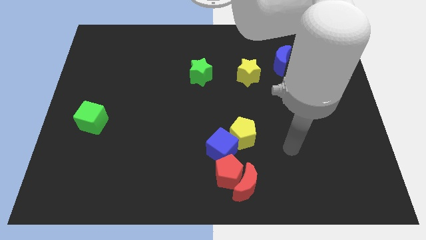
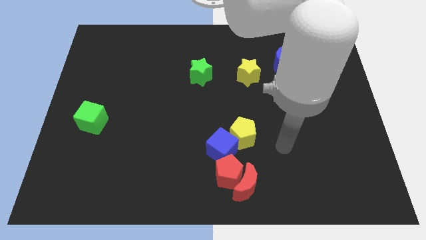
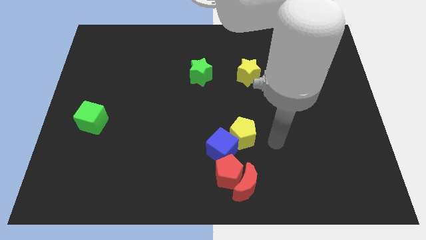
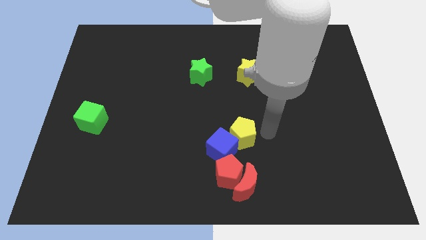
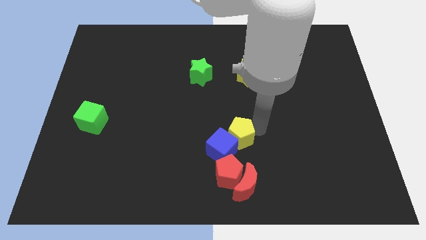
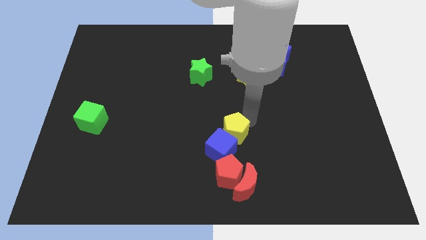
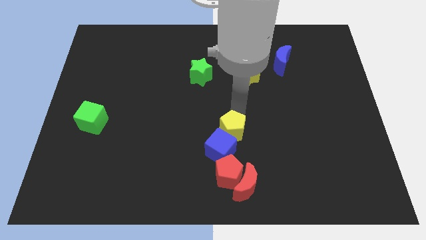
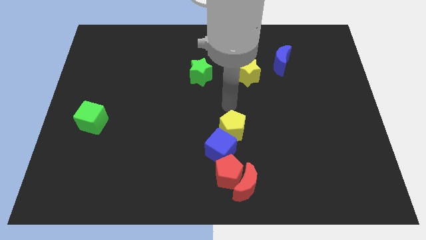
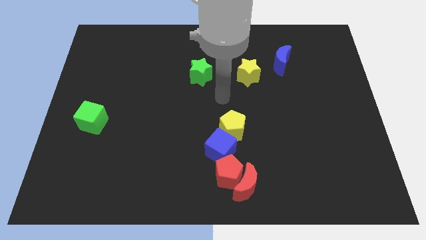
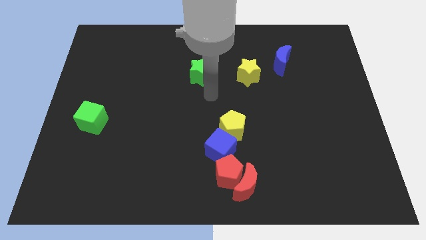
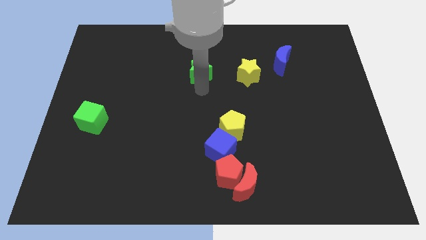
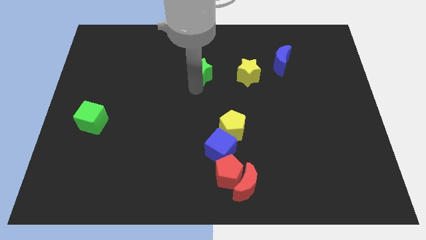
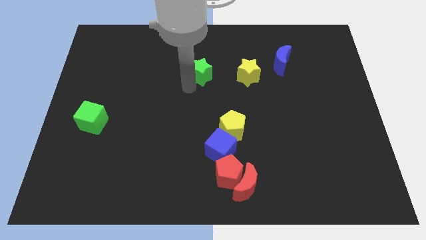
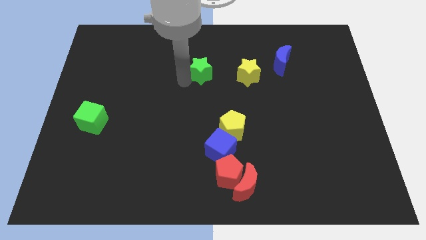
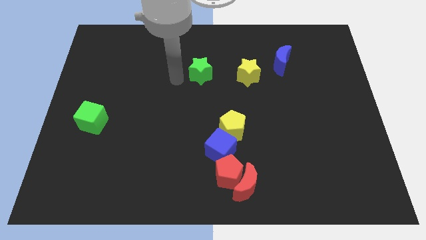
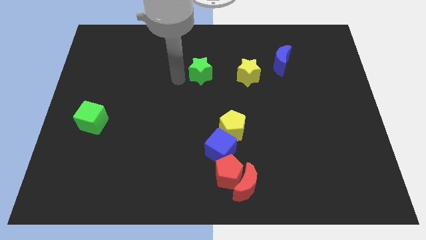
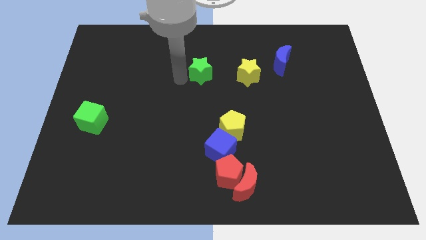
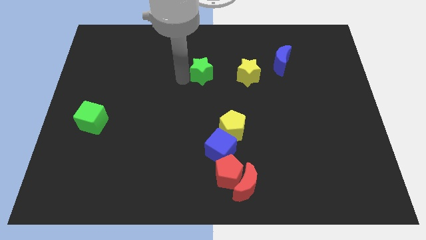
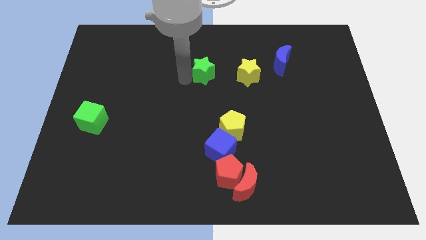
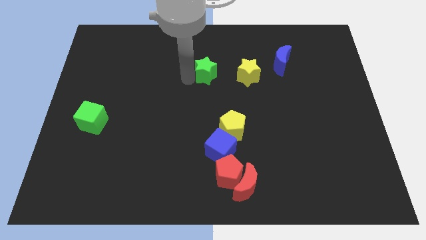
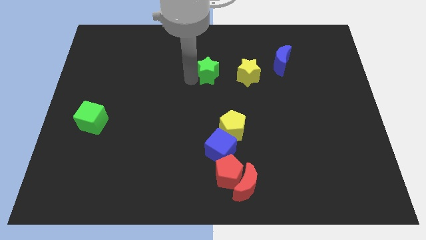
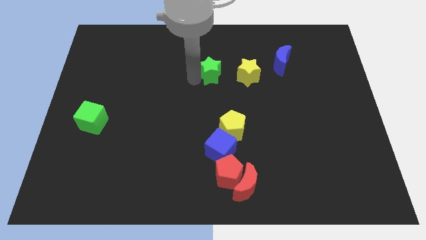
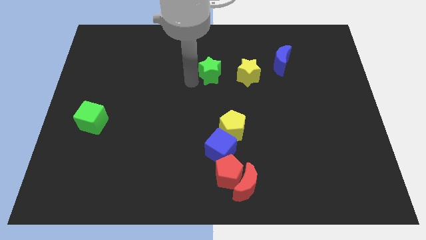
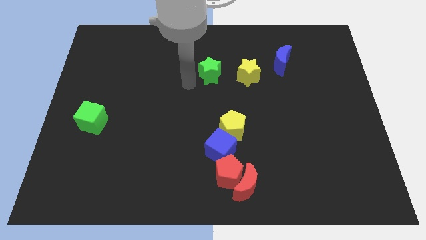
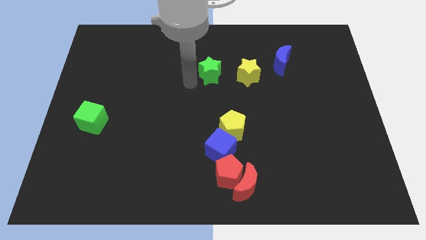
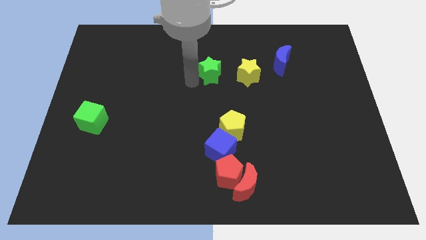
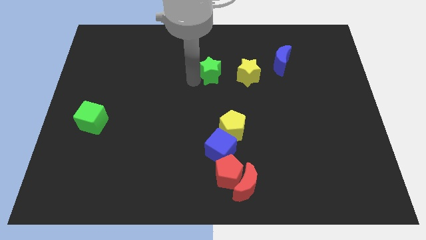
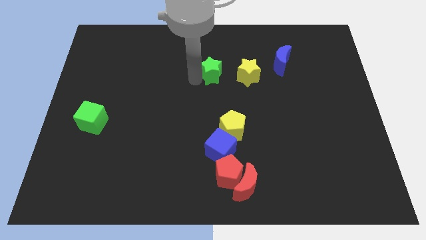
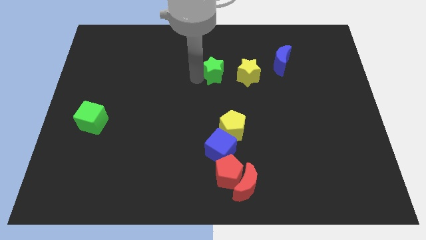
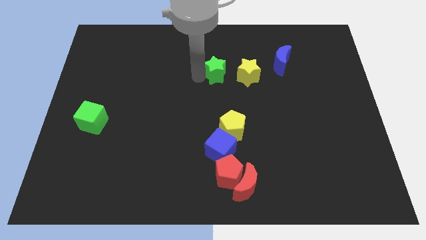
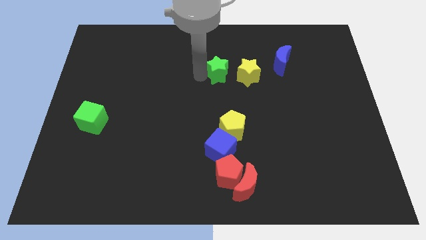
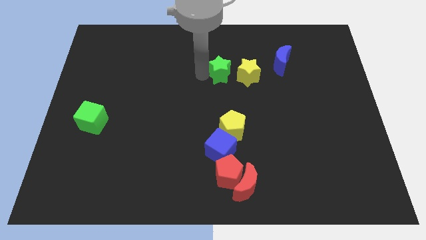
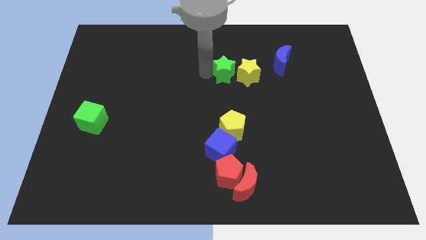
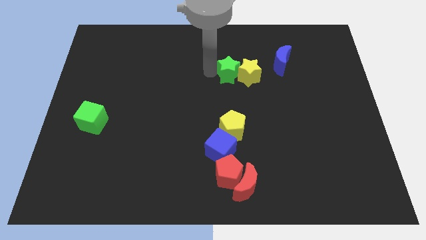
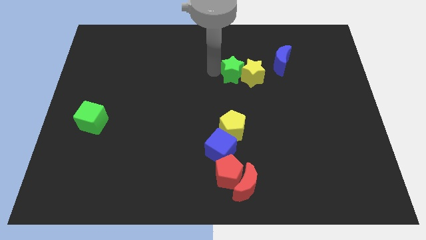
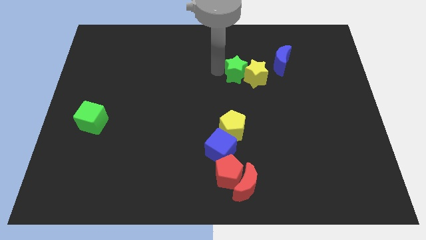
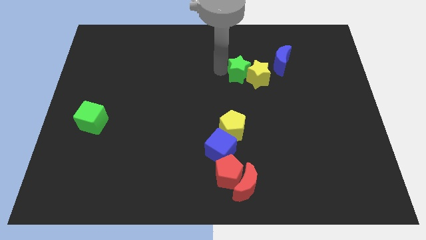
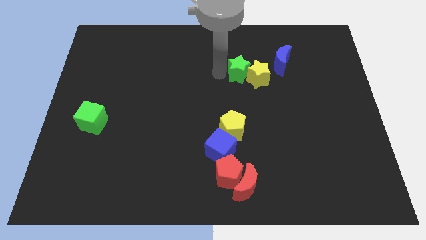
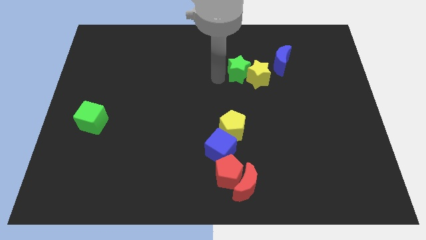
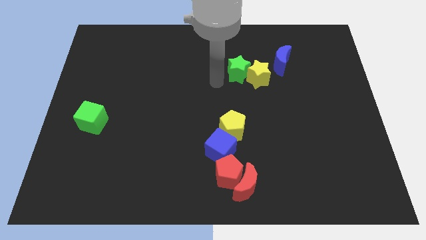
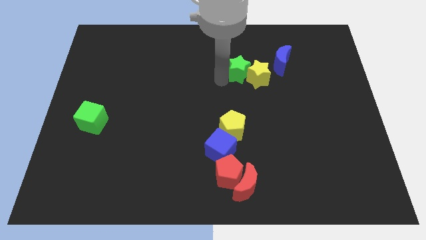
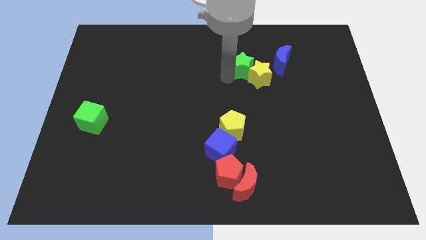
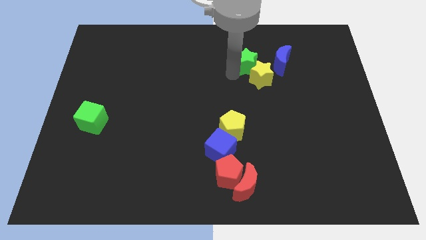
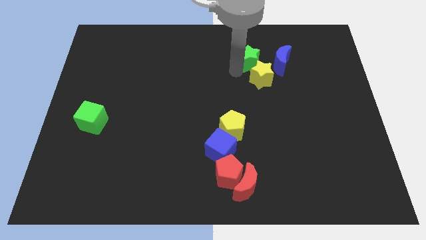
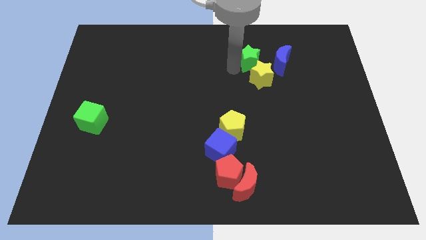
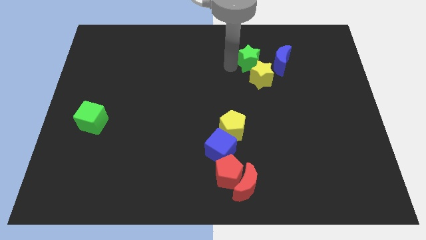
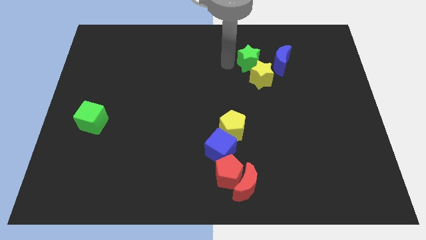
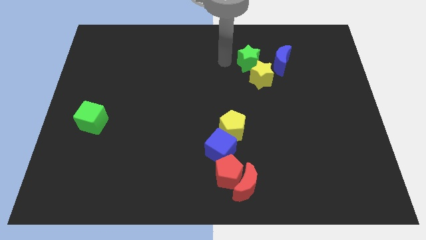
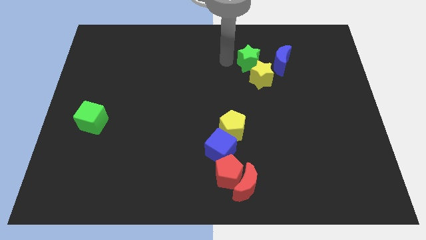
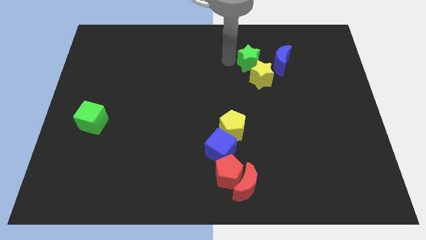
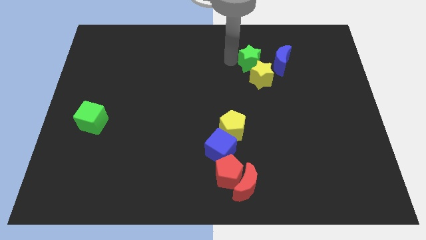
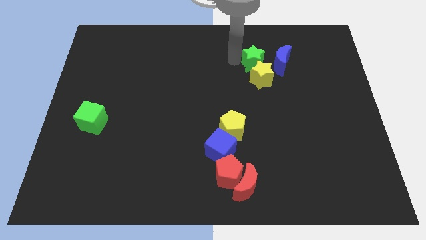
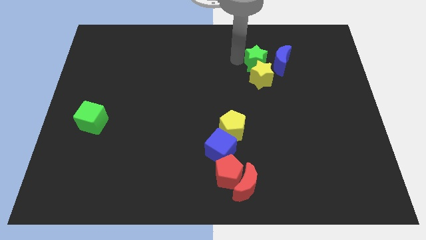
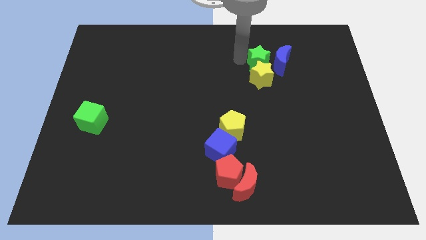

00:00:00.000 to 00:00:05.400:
move the green star close to the blue moon

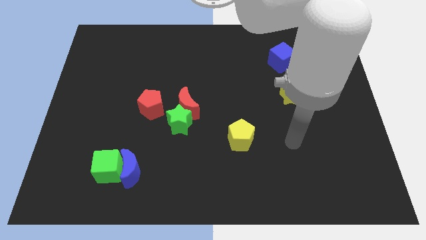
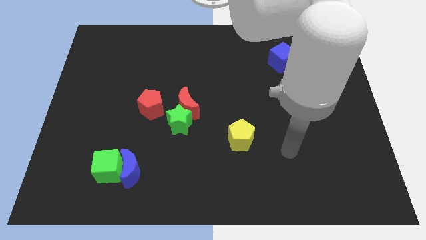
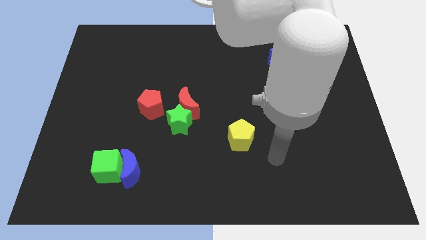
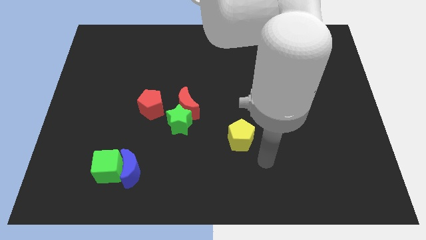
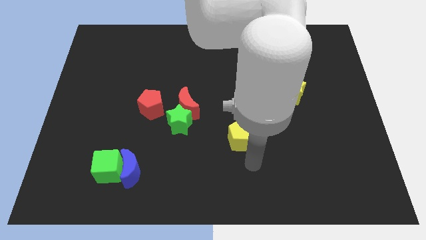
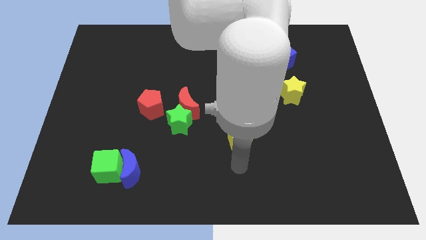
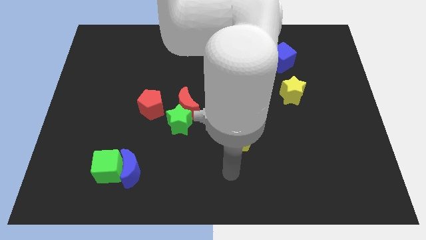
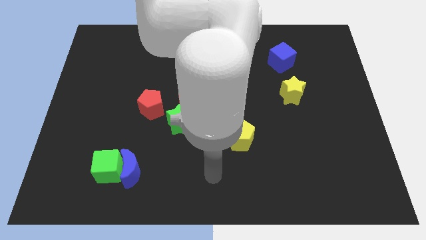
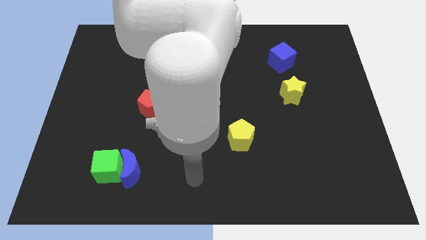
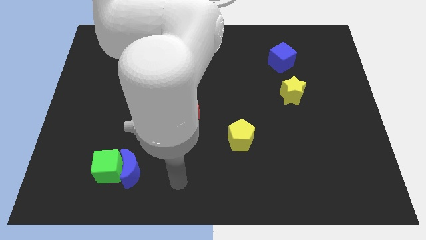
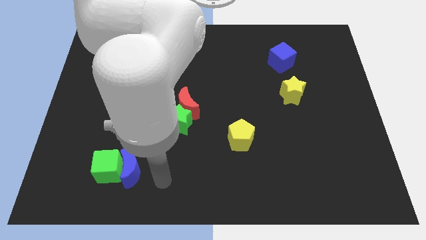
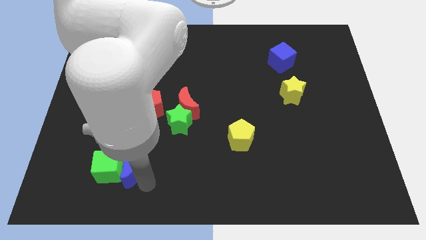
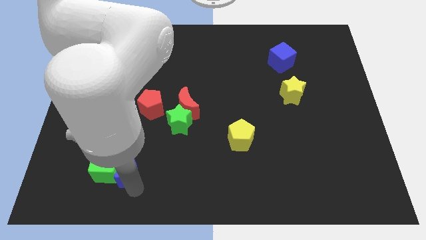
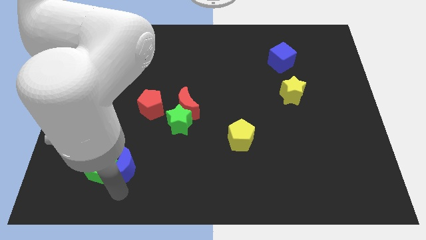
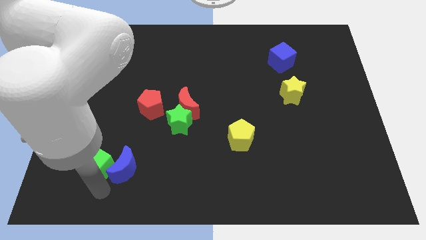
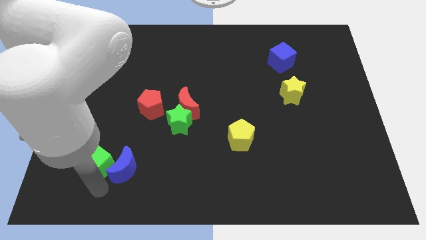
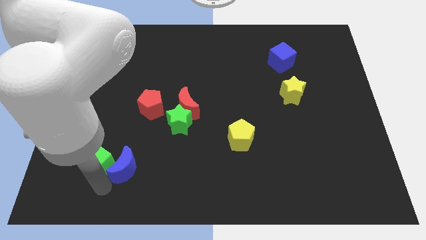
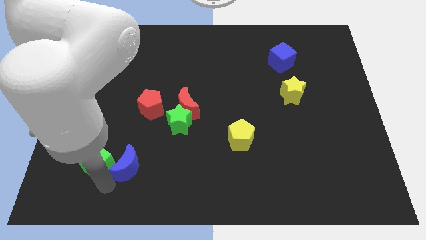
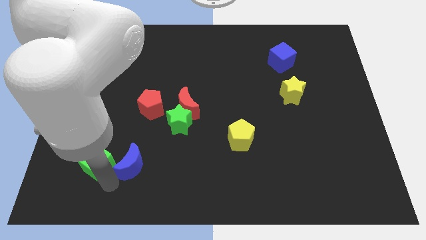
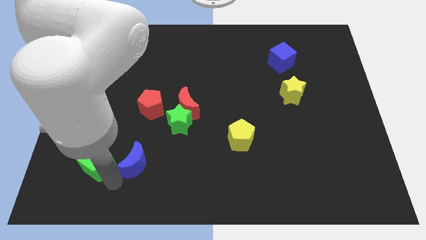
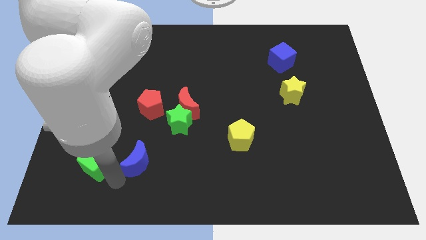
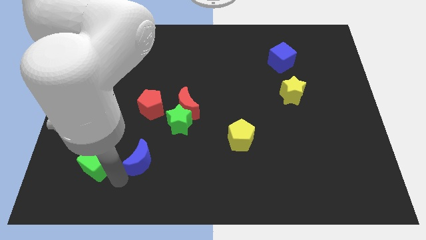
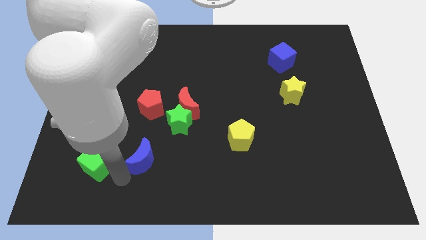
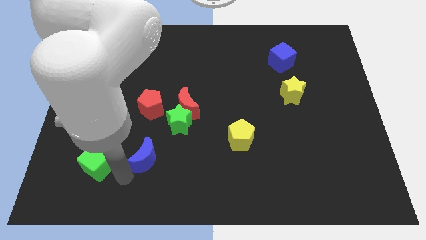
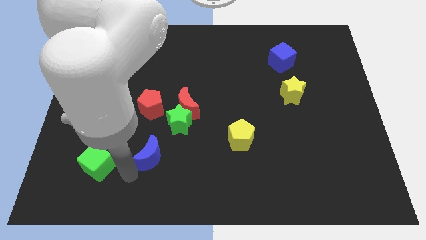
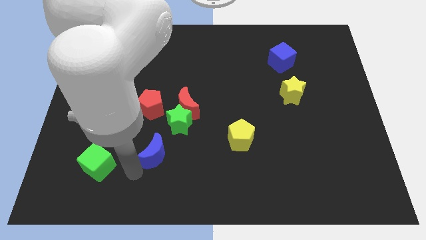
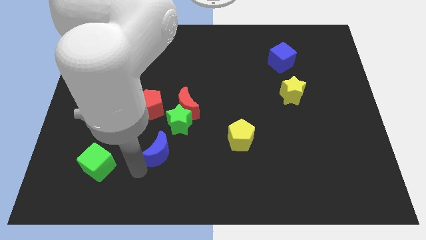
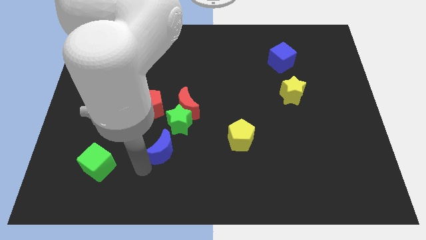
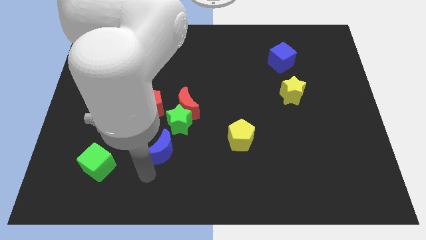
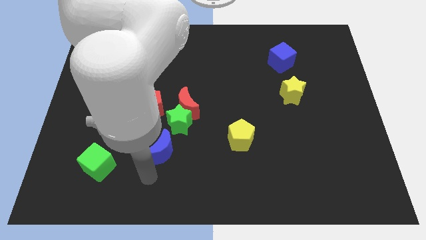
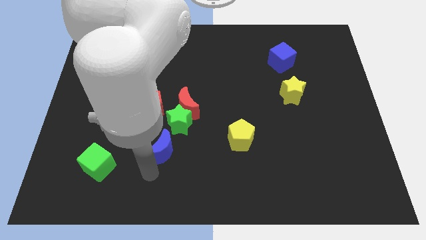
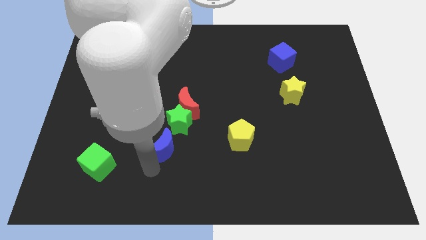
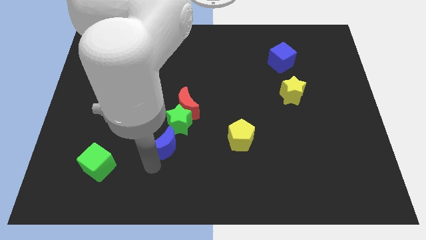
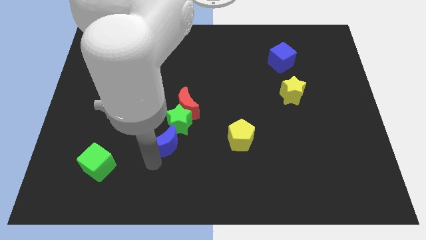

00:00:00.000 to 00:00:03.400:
push the blue moon to the green star
